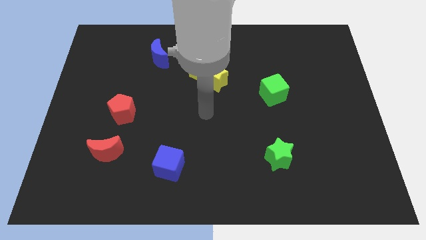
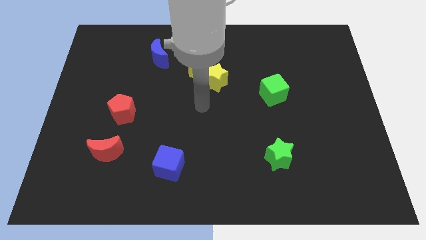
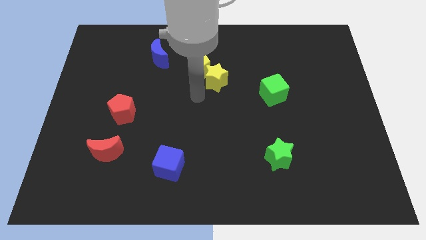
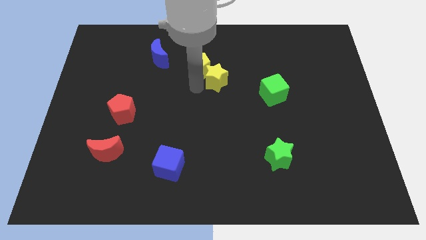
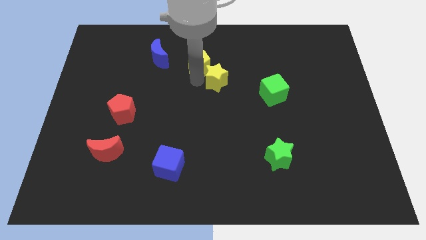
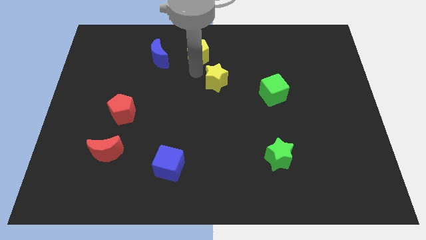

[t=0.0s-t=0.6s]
separate the yellow star from the yellow pentagon

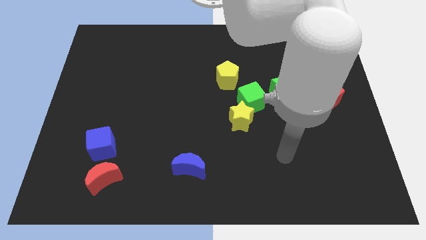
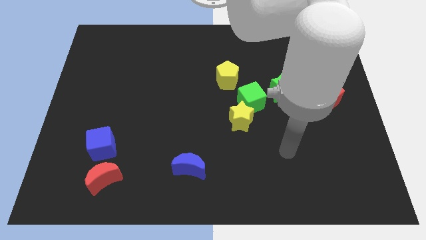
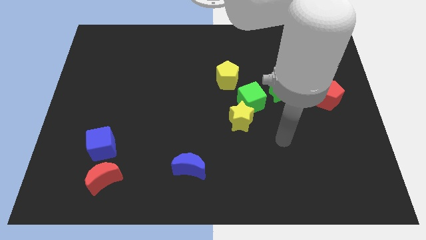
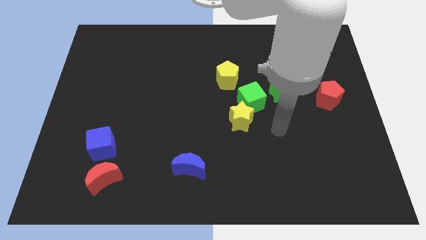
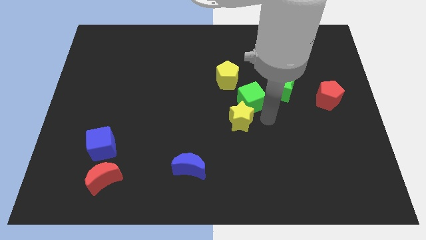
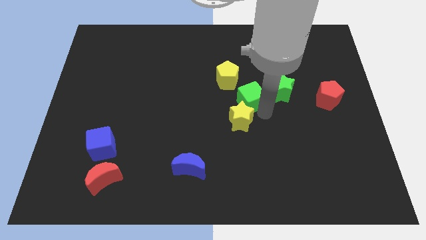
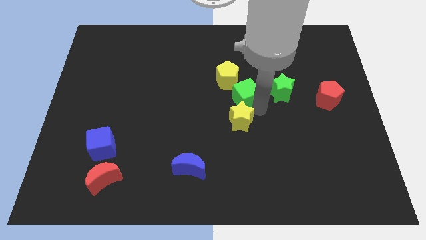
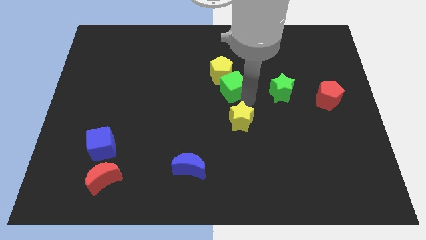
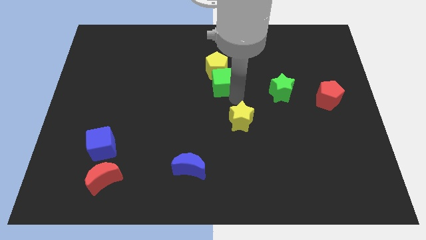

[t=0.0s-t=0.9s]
pull the yellow star apart from the green cube

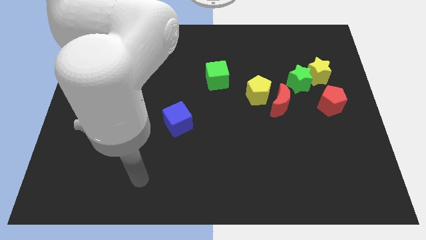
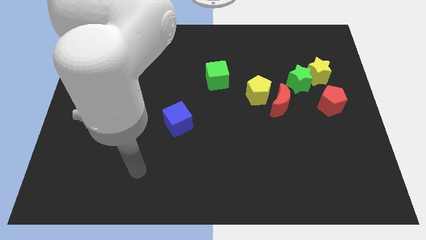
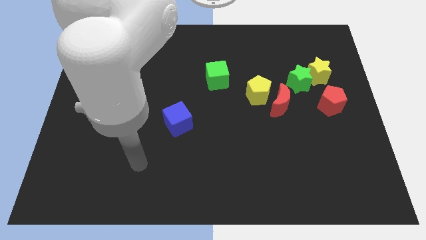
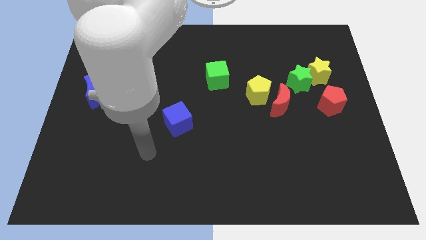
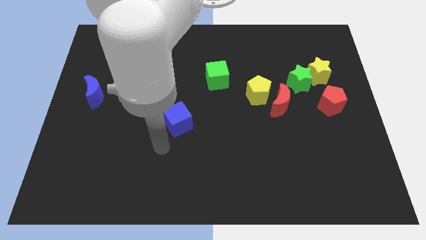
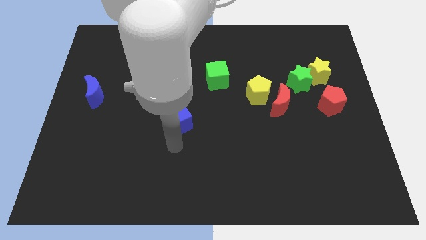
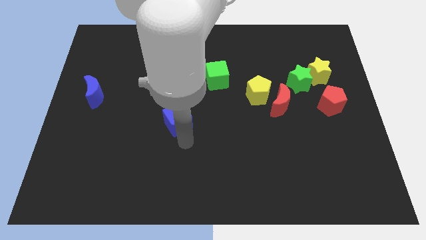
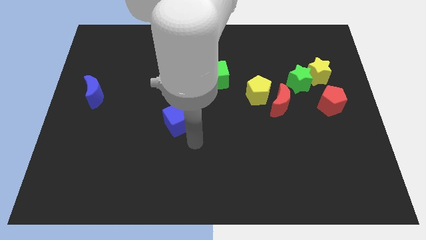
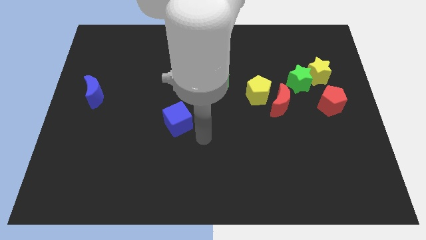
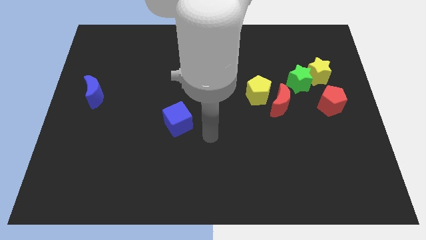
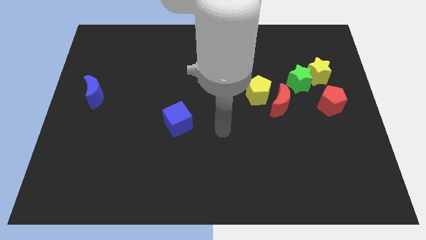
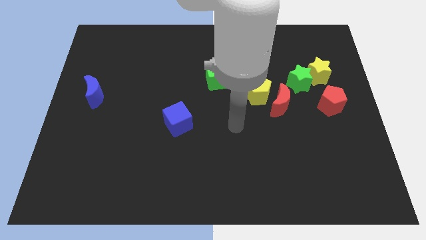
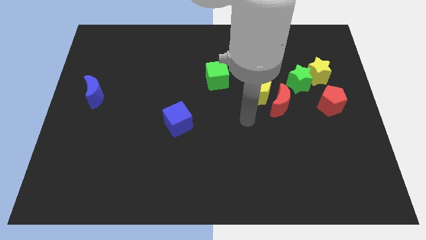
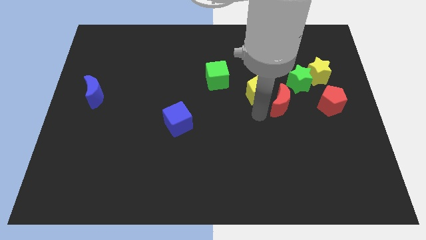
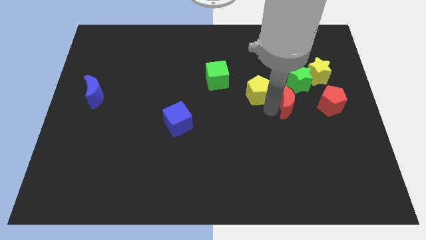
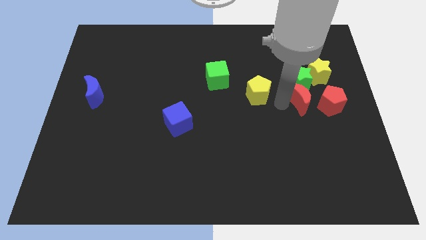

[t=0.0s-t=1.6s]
separate the yellow pentagon from the red moon

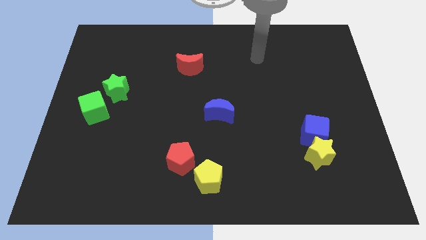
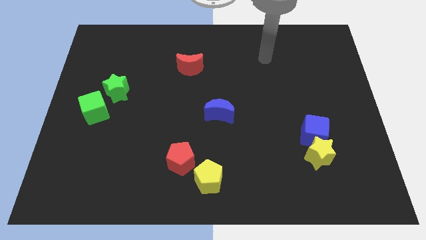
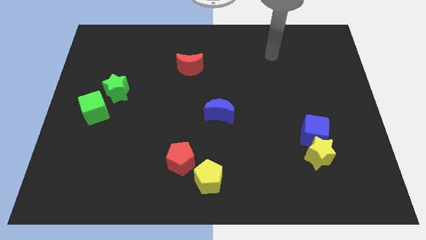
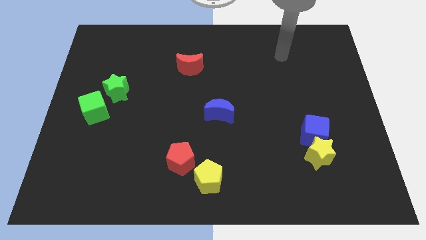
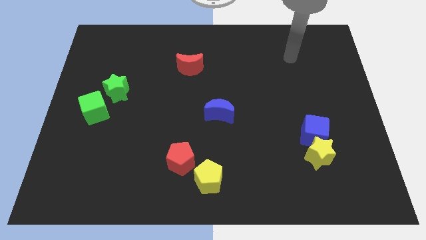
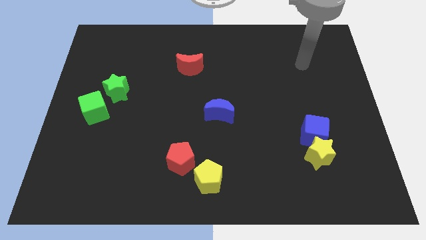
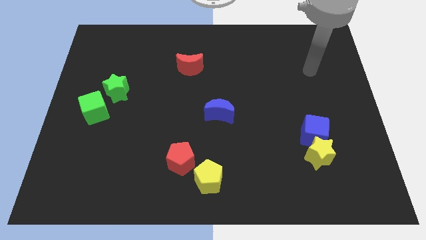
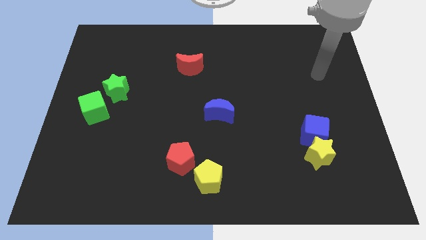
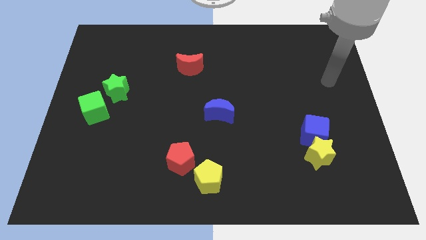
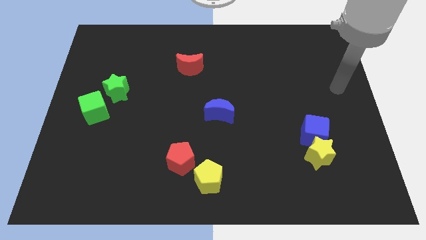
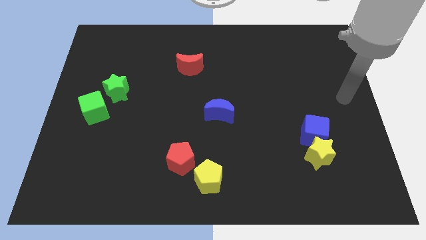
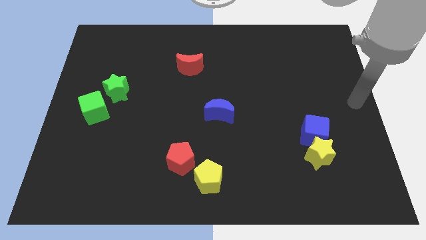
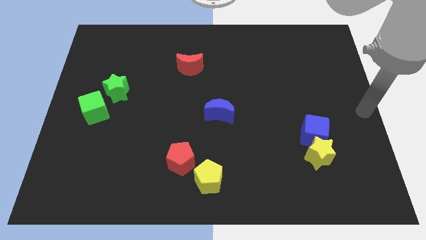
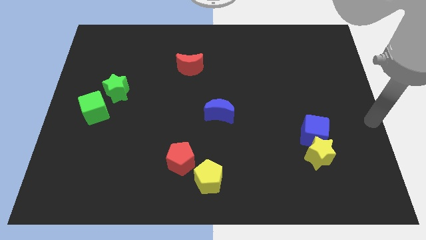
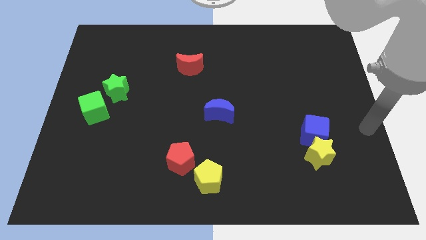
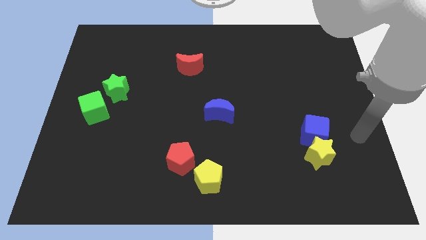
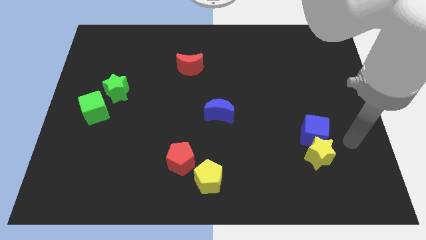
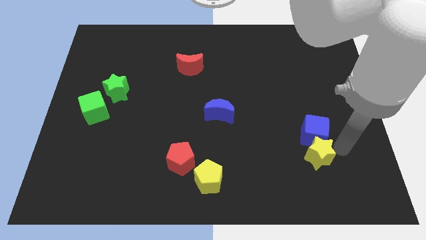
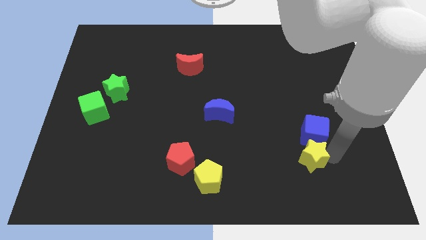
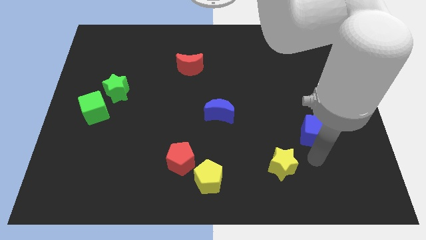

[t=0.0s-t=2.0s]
move the blue cube away from the yellow star

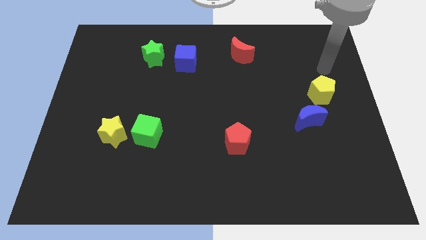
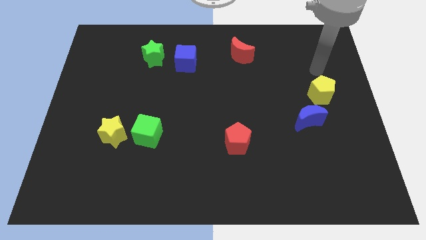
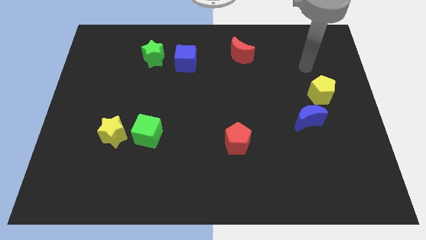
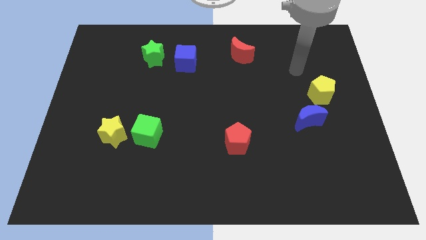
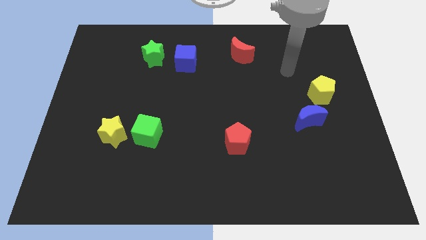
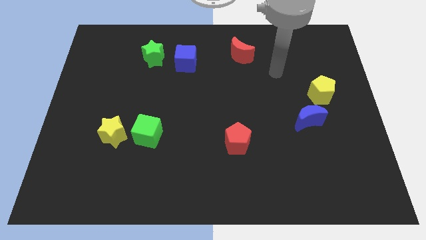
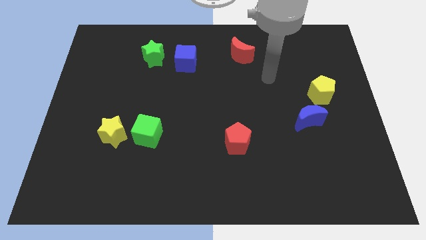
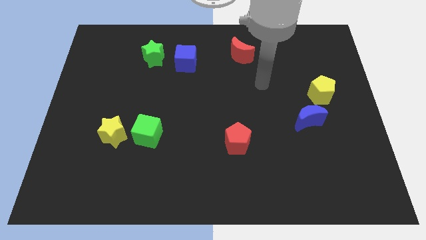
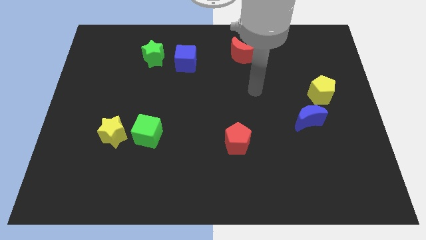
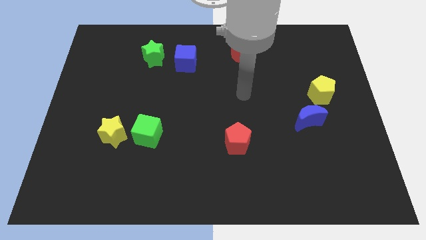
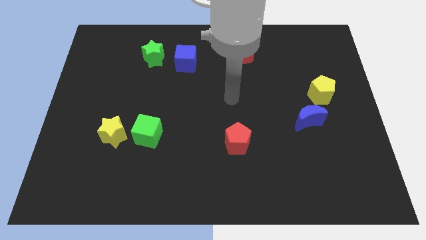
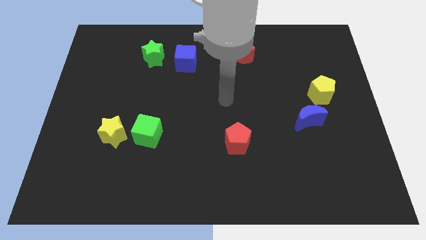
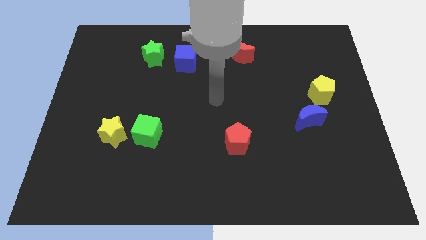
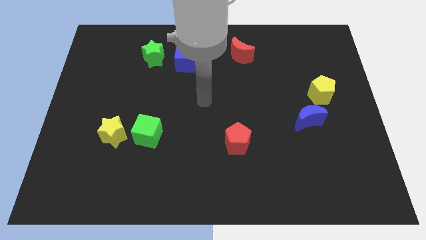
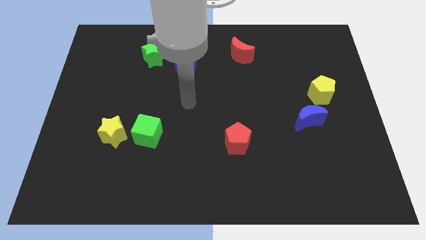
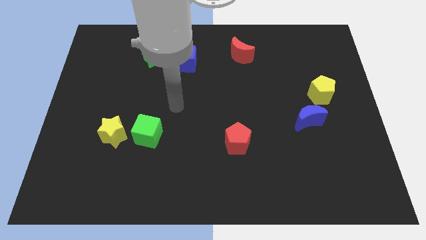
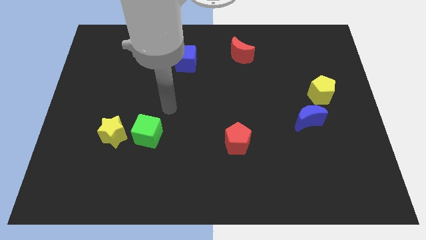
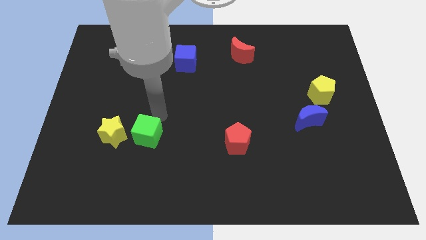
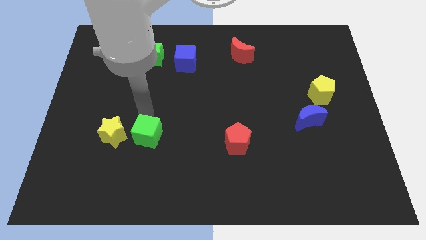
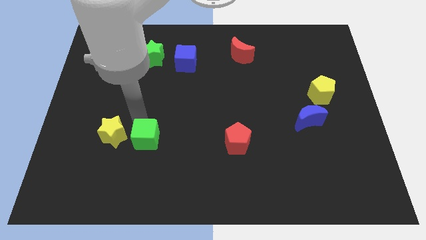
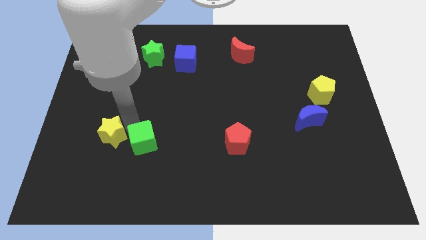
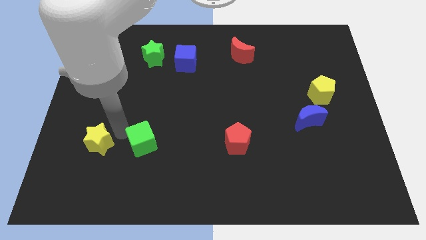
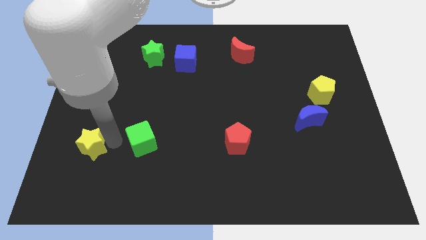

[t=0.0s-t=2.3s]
pull the green cube apart from the yellow star

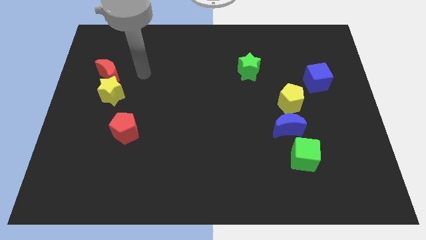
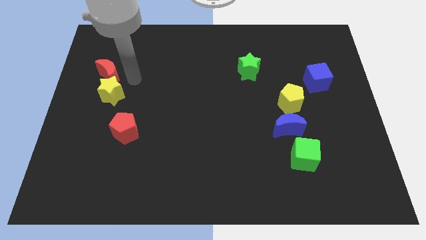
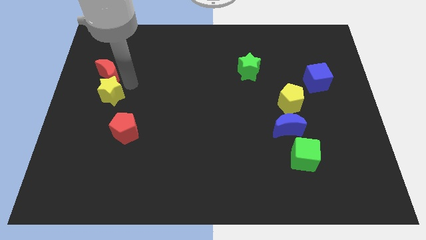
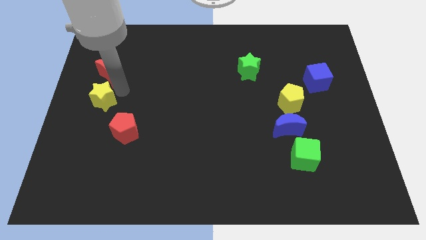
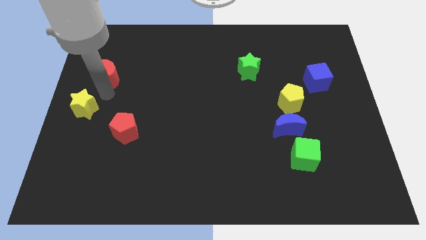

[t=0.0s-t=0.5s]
move the red moon away from the yellow star

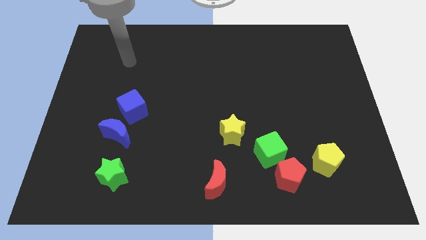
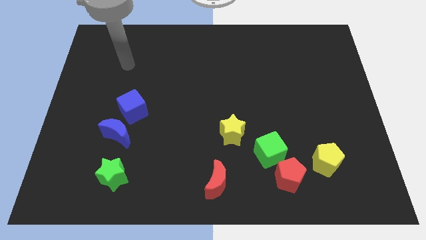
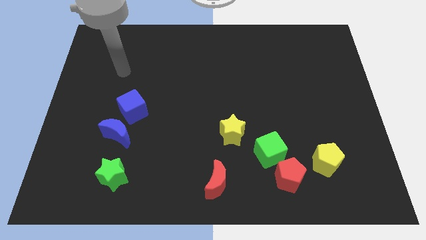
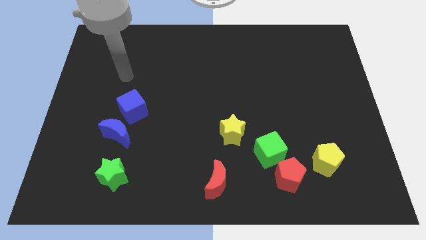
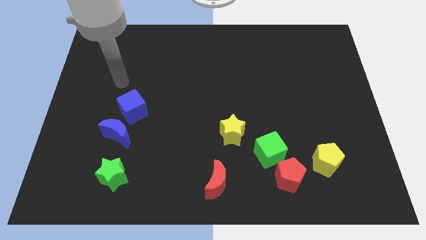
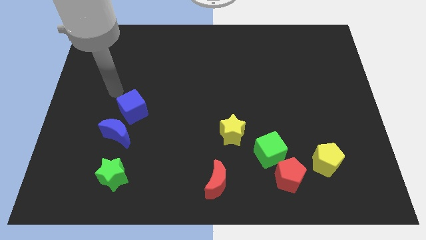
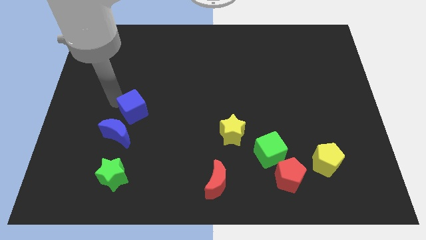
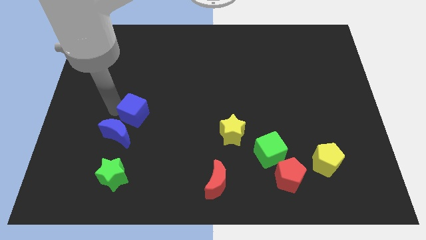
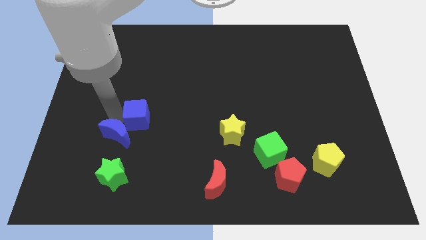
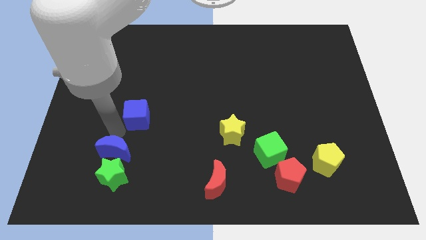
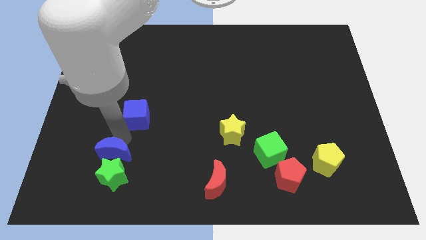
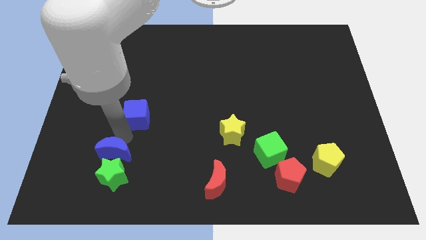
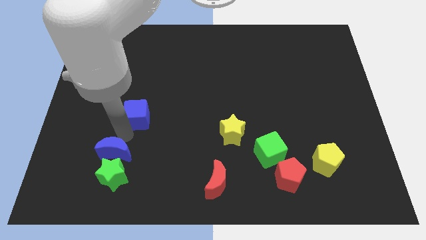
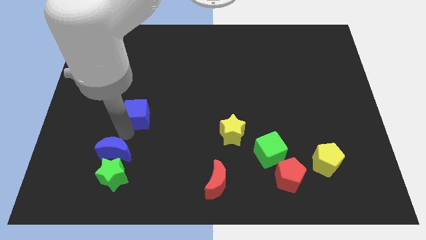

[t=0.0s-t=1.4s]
move the blue cube away from the blue moon
